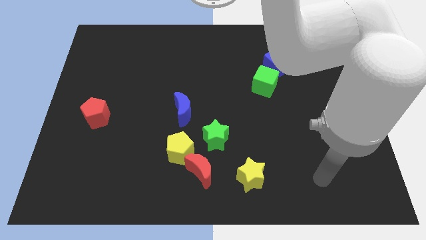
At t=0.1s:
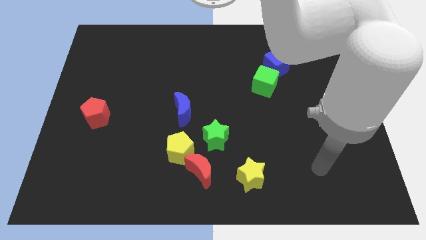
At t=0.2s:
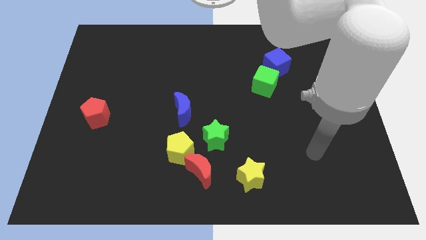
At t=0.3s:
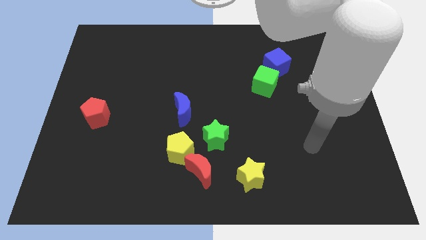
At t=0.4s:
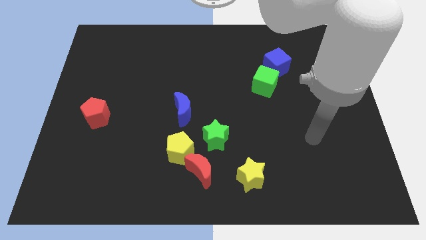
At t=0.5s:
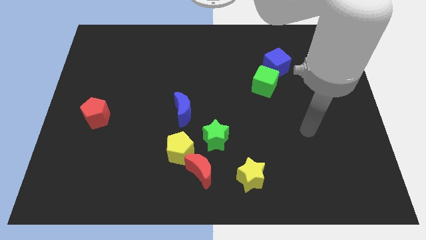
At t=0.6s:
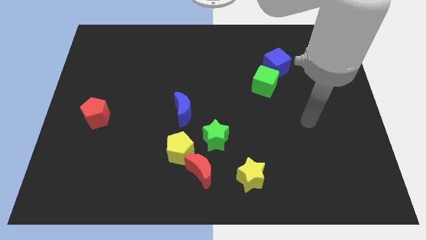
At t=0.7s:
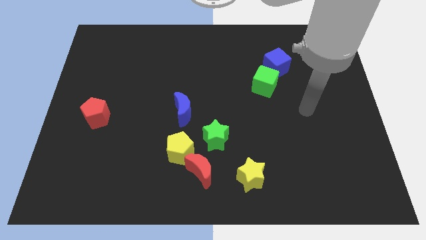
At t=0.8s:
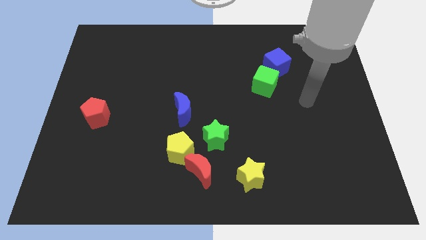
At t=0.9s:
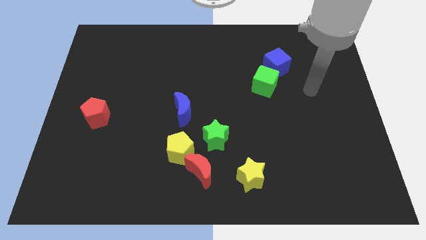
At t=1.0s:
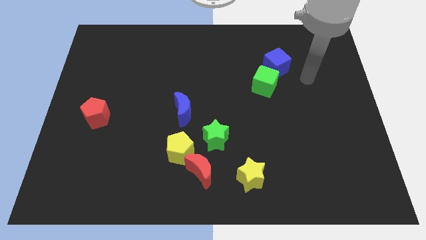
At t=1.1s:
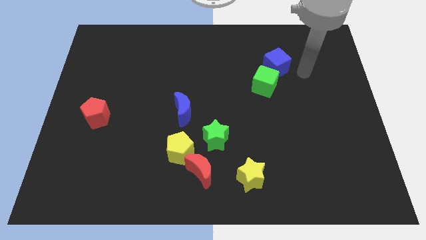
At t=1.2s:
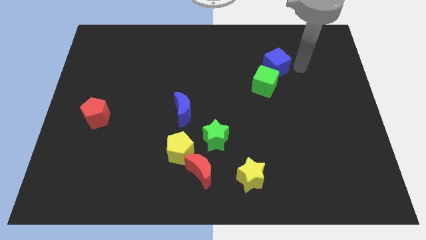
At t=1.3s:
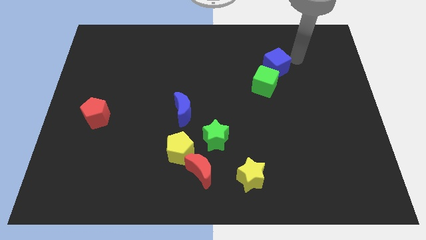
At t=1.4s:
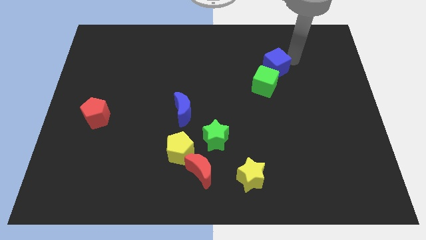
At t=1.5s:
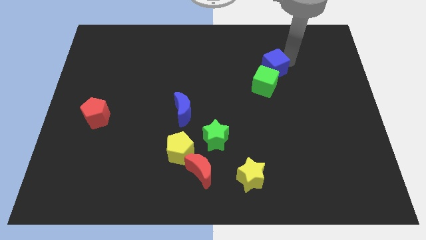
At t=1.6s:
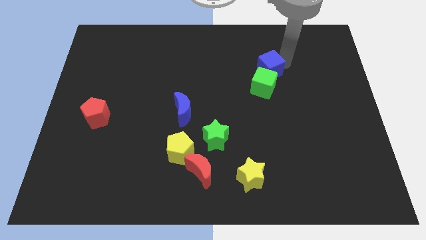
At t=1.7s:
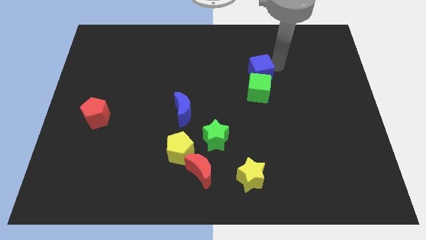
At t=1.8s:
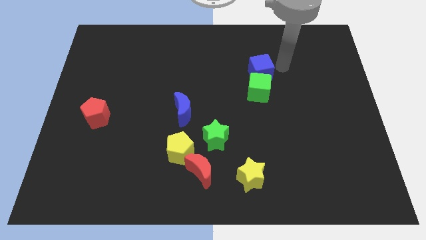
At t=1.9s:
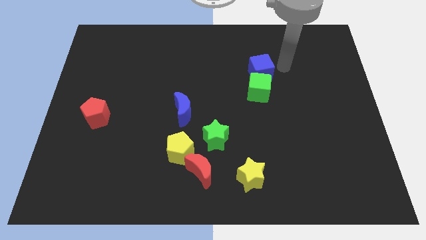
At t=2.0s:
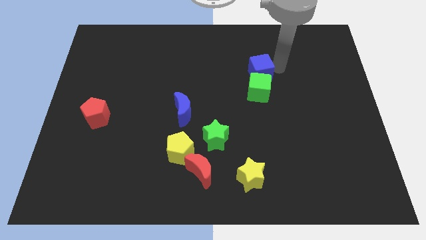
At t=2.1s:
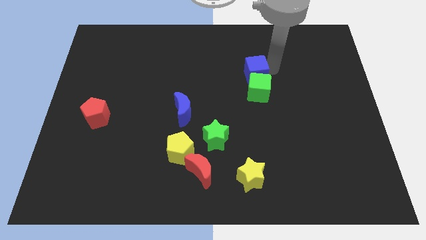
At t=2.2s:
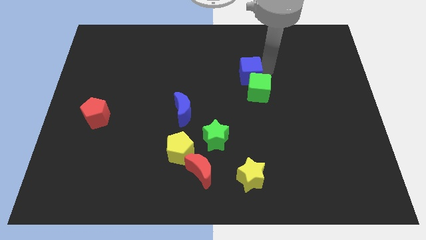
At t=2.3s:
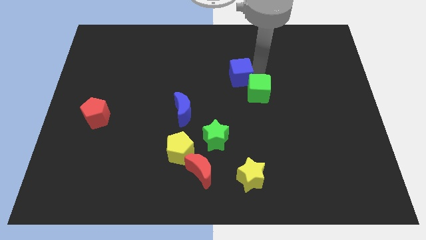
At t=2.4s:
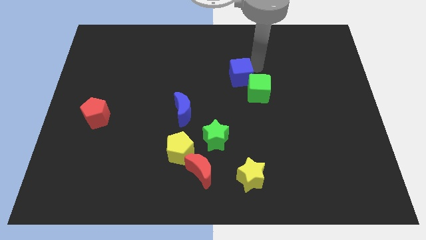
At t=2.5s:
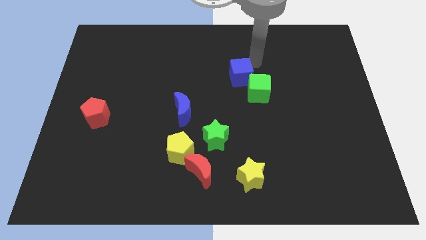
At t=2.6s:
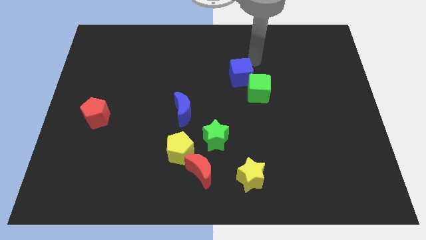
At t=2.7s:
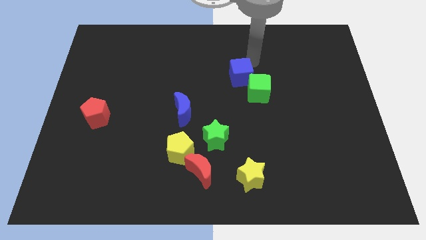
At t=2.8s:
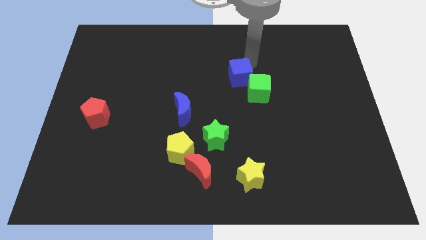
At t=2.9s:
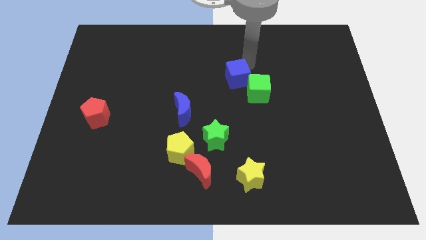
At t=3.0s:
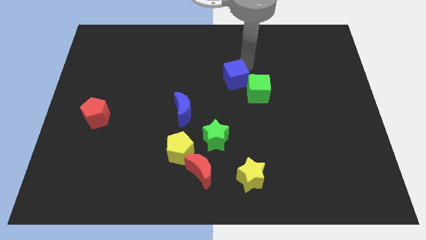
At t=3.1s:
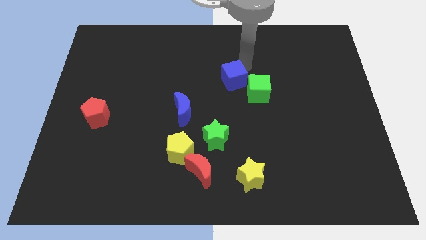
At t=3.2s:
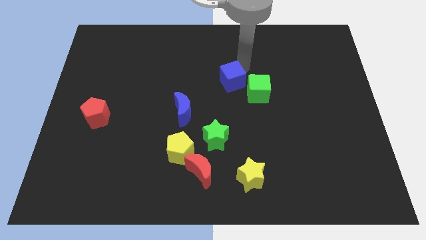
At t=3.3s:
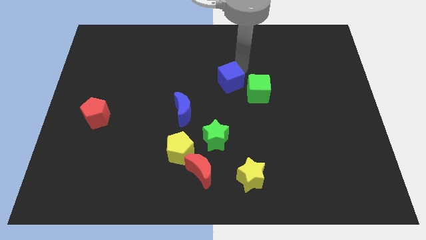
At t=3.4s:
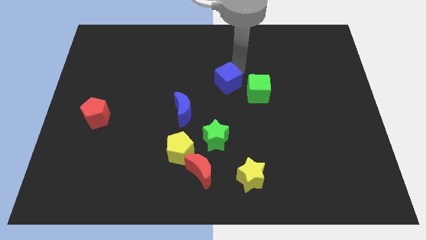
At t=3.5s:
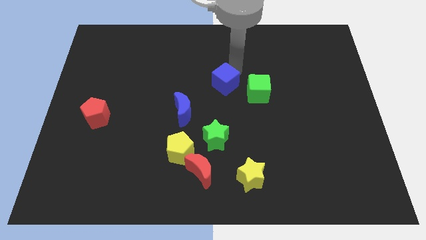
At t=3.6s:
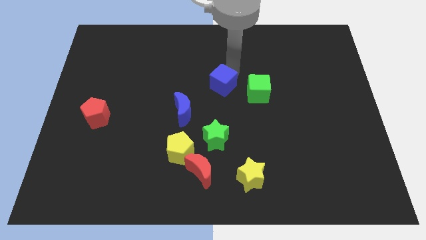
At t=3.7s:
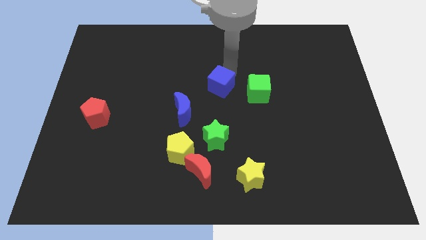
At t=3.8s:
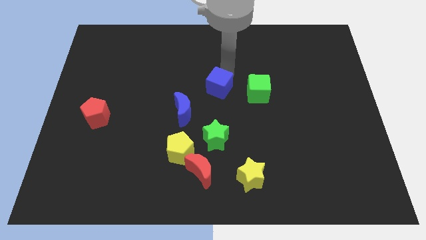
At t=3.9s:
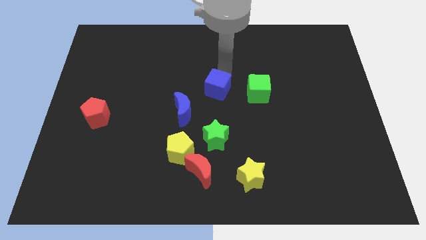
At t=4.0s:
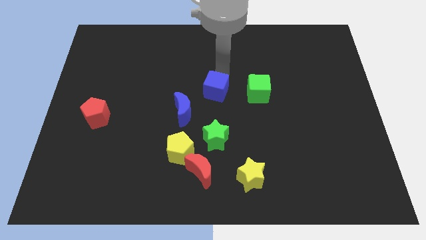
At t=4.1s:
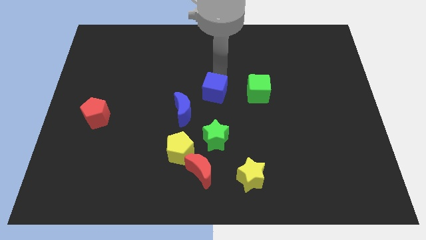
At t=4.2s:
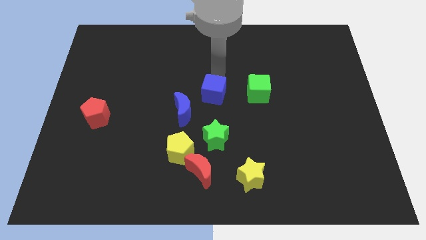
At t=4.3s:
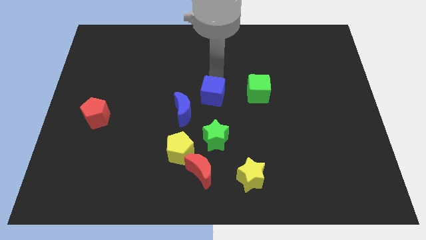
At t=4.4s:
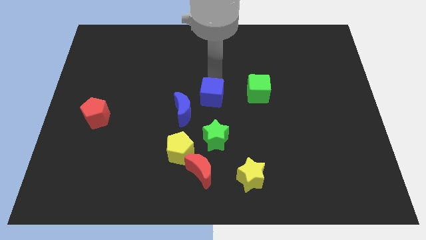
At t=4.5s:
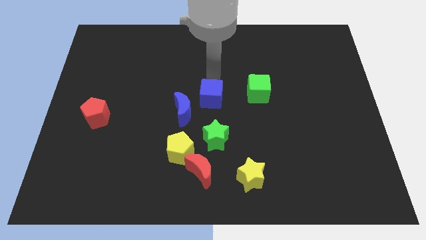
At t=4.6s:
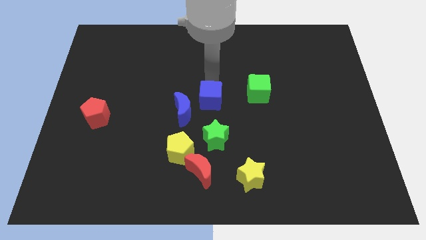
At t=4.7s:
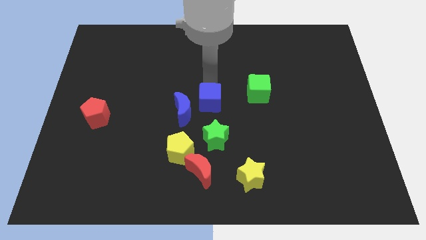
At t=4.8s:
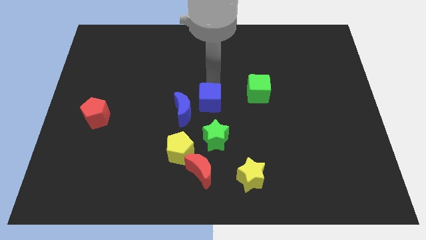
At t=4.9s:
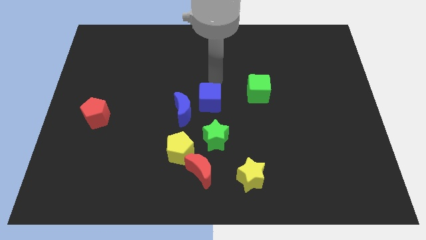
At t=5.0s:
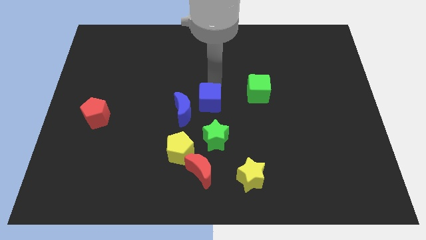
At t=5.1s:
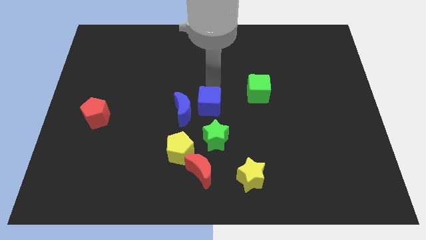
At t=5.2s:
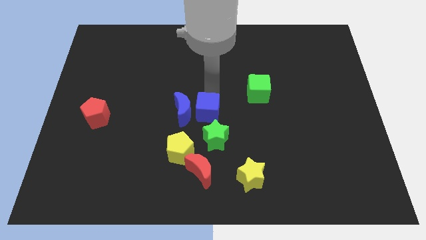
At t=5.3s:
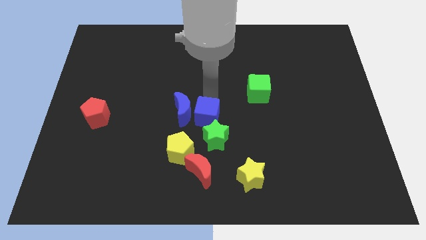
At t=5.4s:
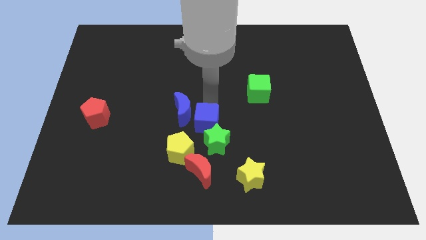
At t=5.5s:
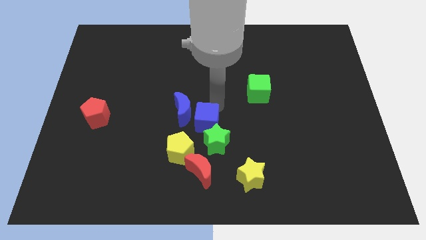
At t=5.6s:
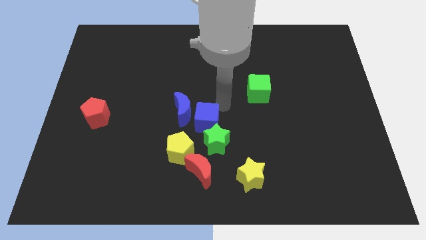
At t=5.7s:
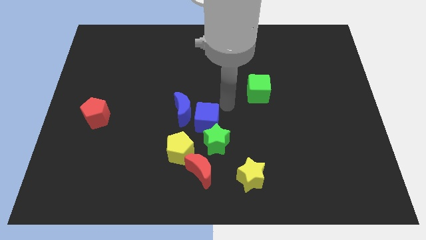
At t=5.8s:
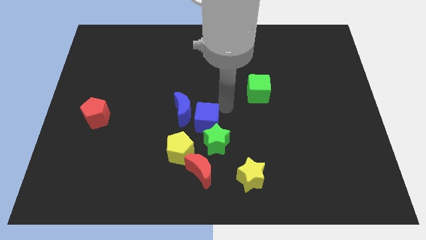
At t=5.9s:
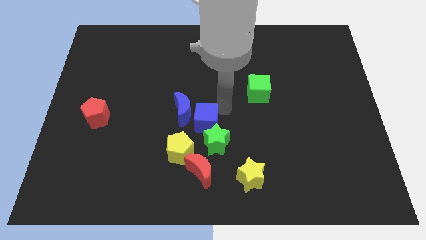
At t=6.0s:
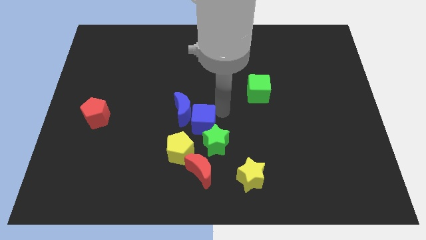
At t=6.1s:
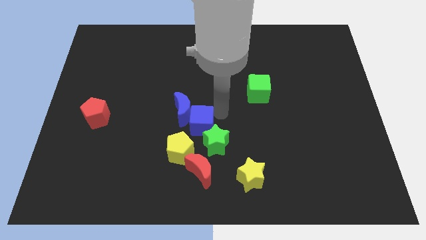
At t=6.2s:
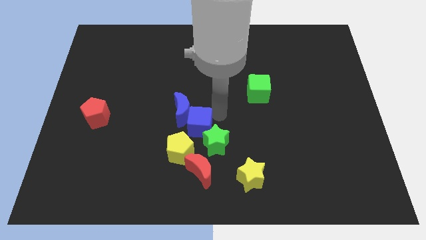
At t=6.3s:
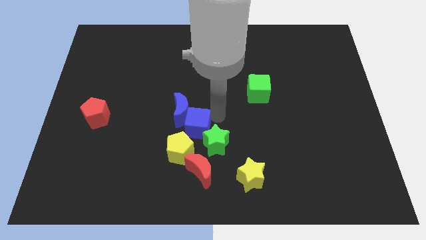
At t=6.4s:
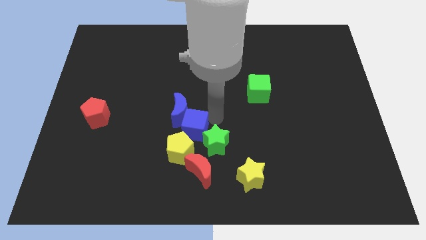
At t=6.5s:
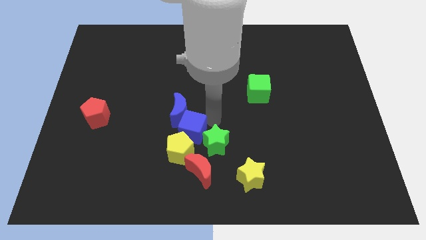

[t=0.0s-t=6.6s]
move the blue cube towards the yellow pentagon

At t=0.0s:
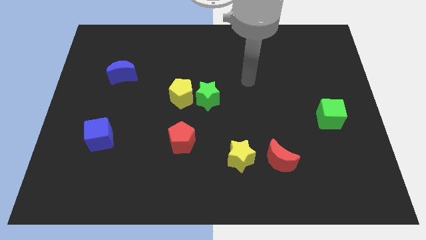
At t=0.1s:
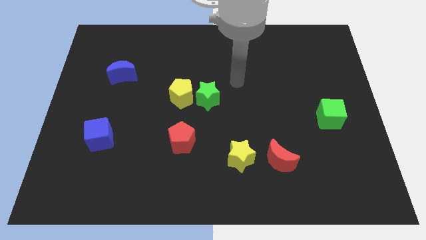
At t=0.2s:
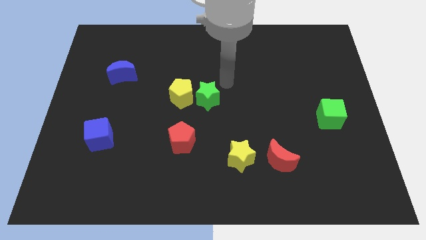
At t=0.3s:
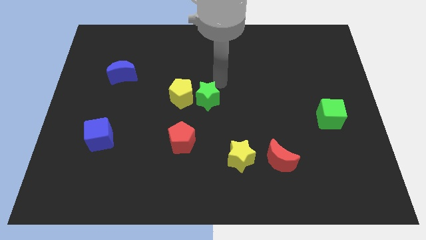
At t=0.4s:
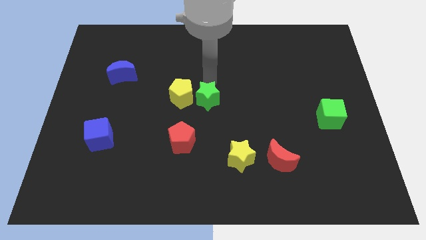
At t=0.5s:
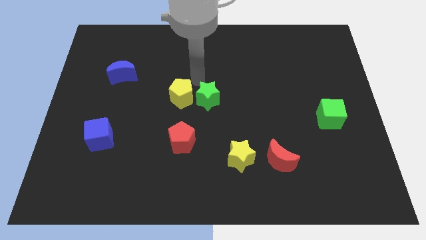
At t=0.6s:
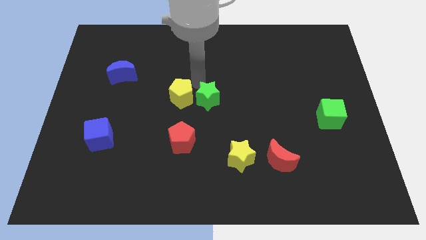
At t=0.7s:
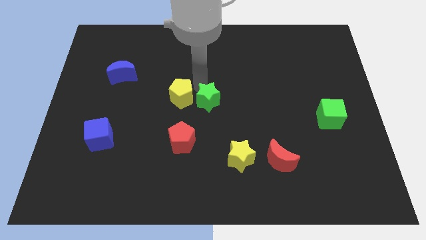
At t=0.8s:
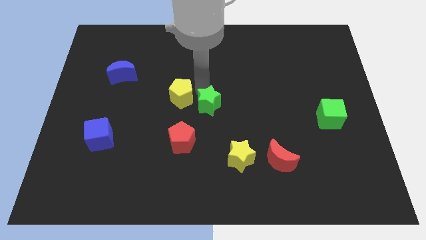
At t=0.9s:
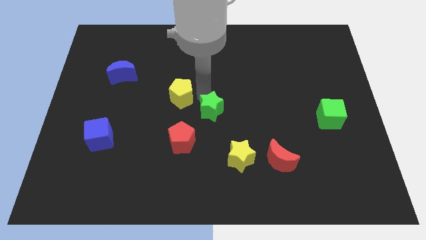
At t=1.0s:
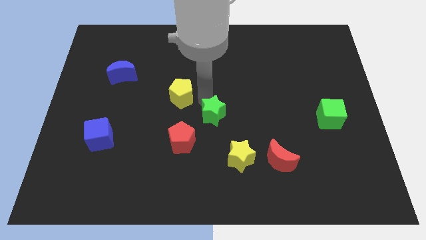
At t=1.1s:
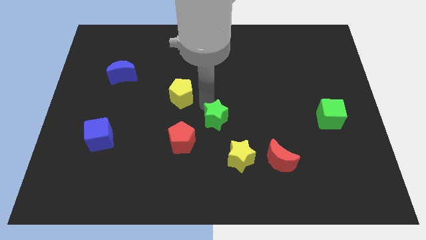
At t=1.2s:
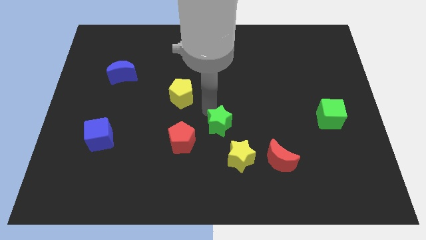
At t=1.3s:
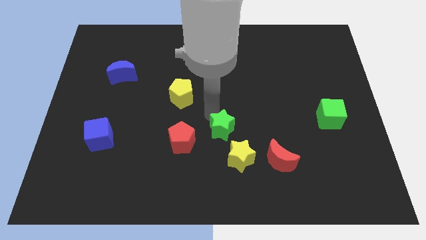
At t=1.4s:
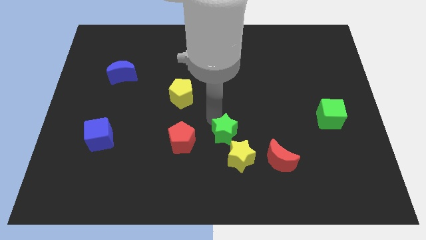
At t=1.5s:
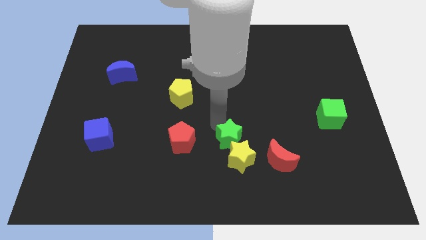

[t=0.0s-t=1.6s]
push the green star close to the yellow star
